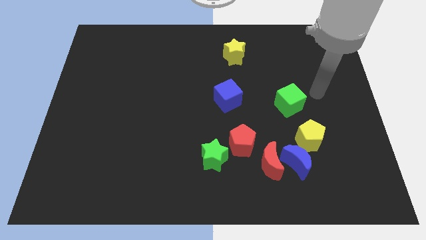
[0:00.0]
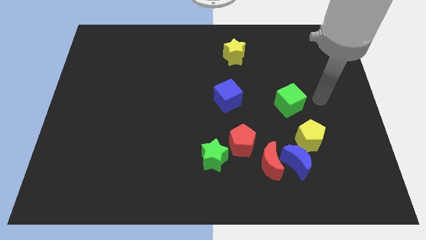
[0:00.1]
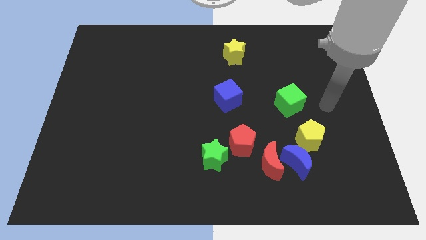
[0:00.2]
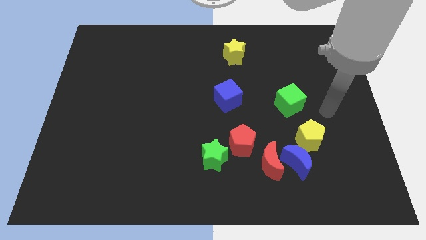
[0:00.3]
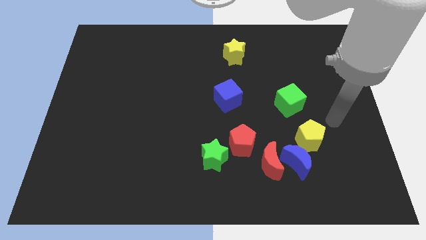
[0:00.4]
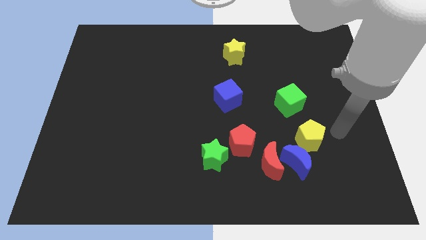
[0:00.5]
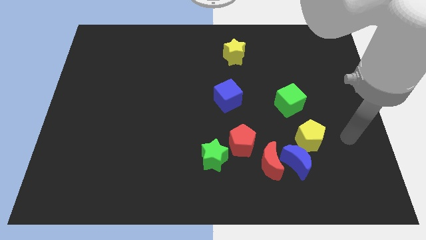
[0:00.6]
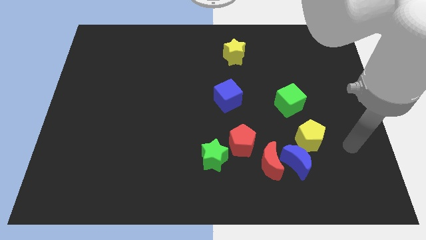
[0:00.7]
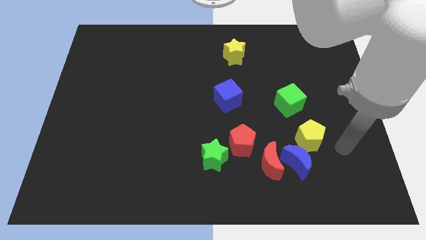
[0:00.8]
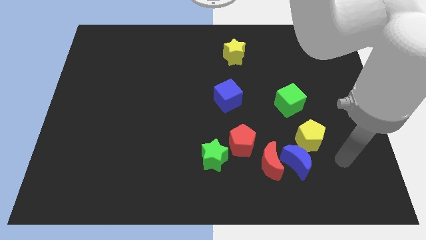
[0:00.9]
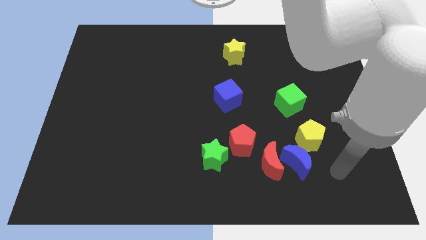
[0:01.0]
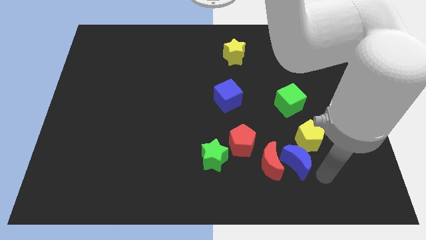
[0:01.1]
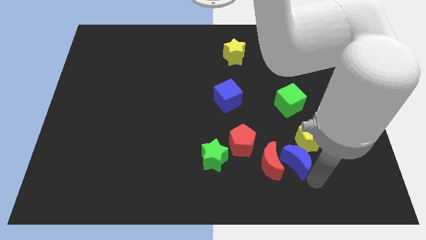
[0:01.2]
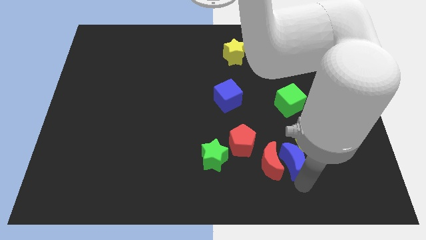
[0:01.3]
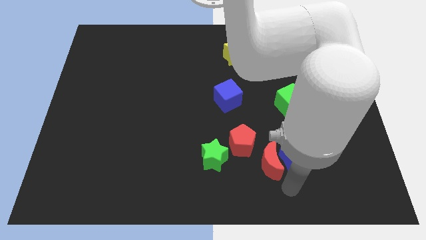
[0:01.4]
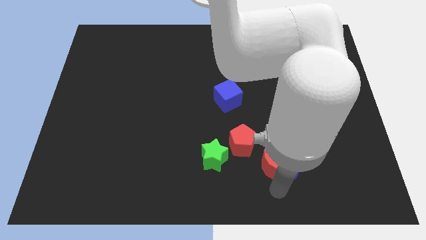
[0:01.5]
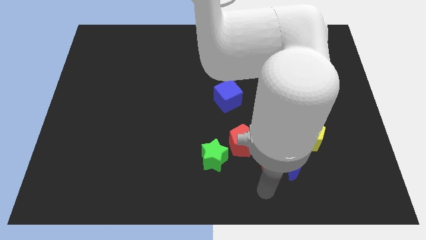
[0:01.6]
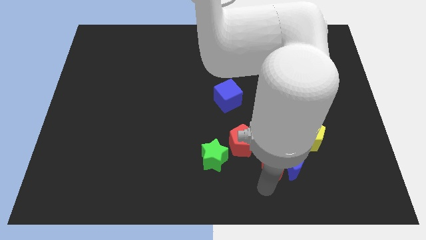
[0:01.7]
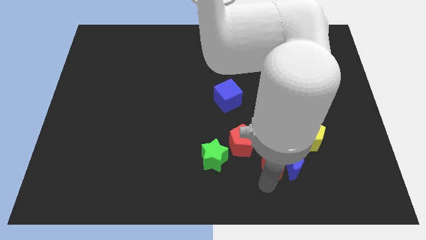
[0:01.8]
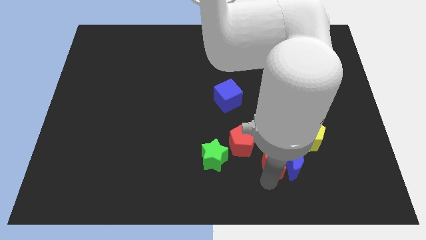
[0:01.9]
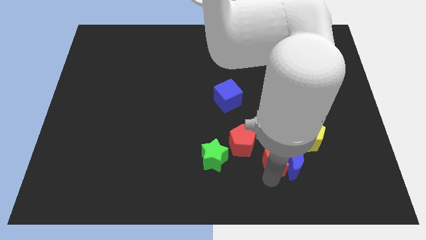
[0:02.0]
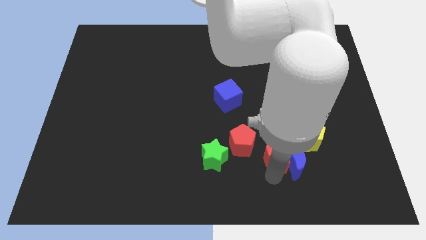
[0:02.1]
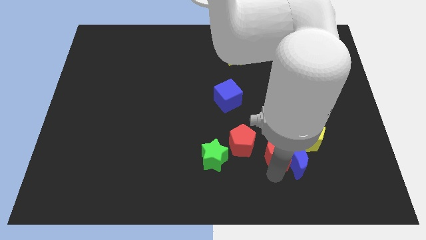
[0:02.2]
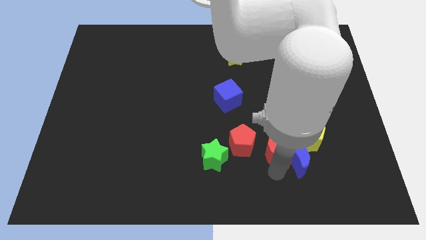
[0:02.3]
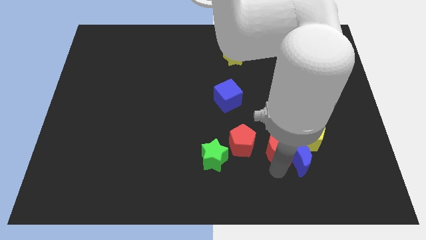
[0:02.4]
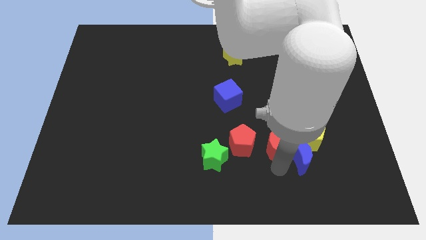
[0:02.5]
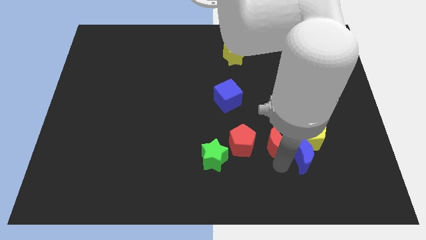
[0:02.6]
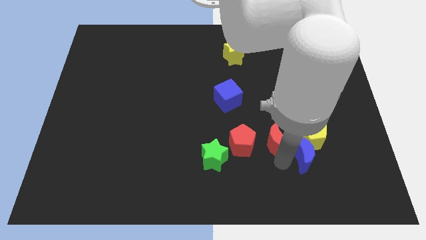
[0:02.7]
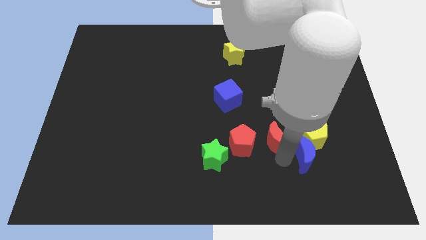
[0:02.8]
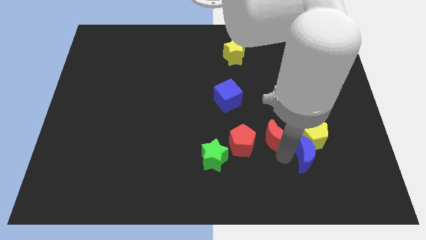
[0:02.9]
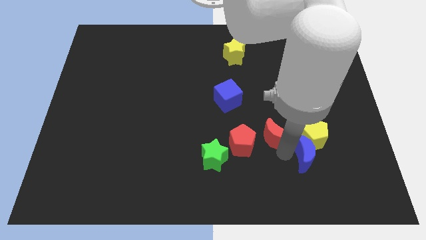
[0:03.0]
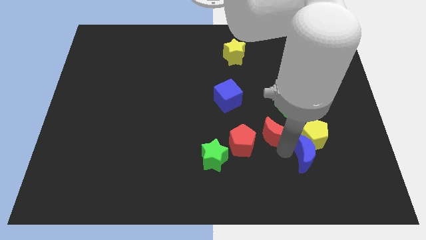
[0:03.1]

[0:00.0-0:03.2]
slightly slide the red moon up

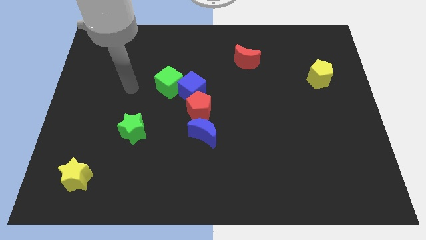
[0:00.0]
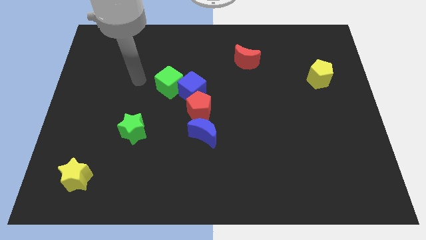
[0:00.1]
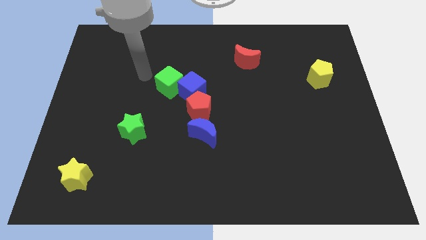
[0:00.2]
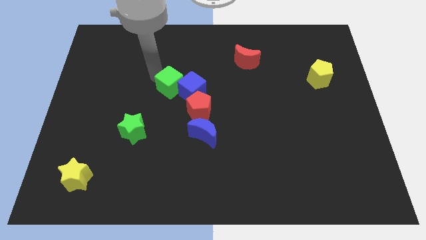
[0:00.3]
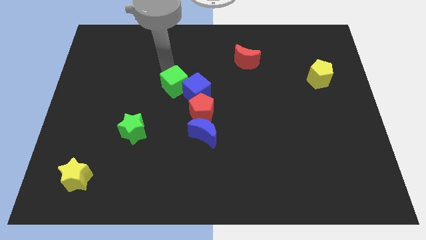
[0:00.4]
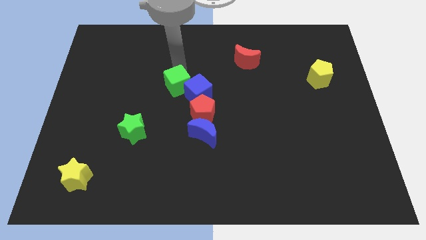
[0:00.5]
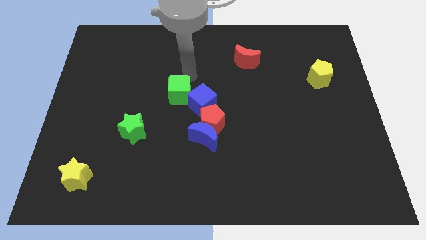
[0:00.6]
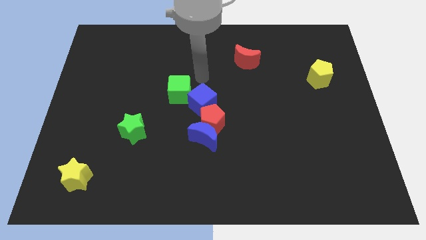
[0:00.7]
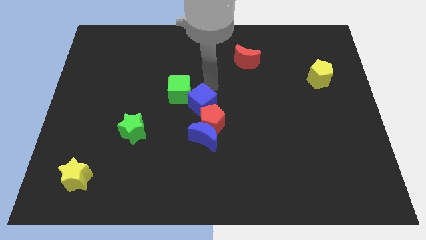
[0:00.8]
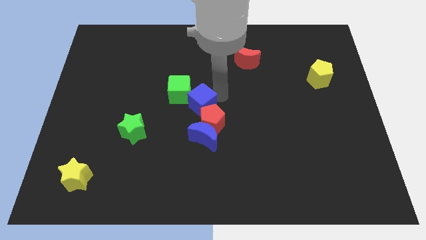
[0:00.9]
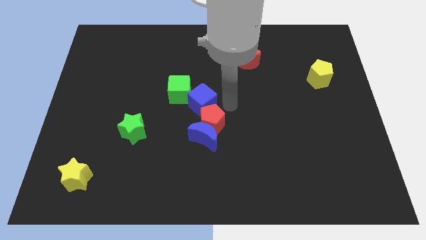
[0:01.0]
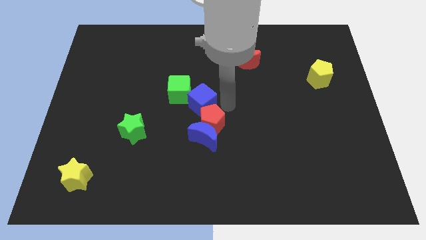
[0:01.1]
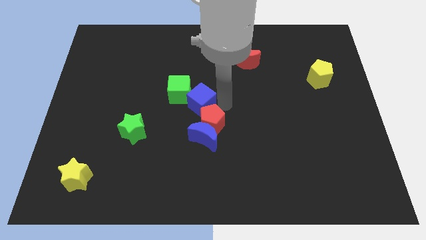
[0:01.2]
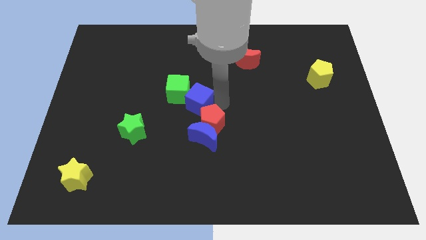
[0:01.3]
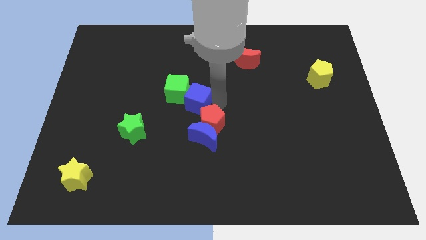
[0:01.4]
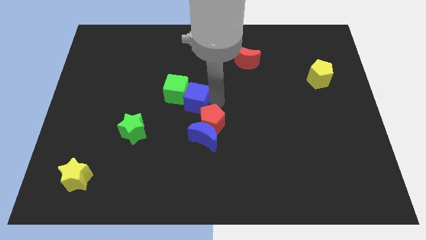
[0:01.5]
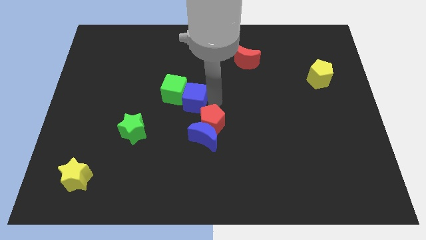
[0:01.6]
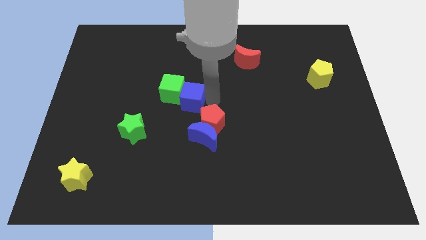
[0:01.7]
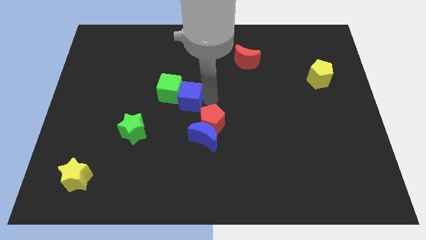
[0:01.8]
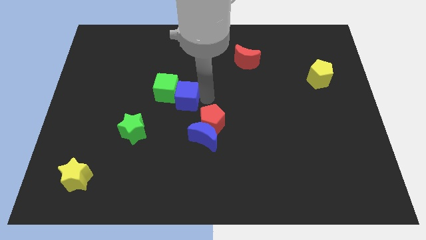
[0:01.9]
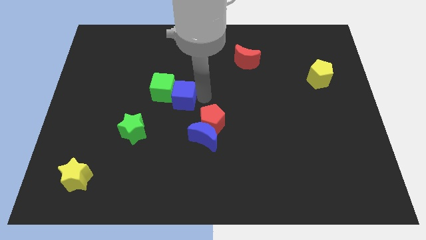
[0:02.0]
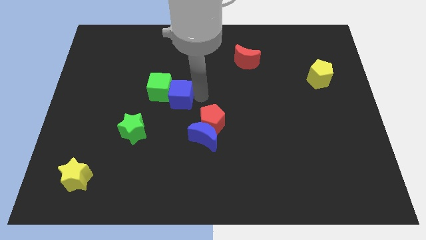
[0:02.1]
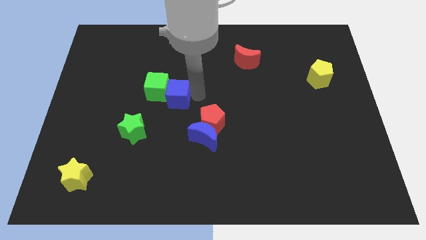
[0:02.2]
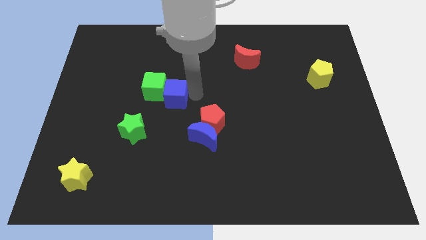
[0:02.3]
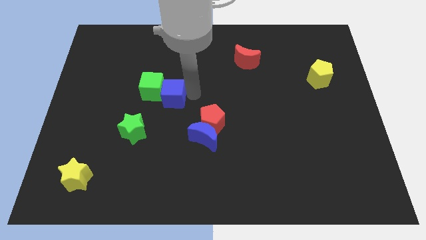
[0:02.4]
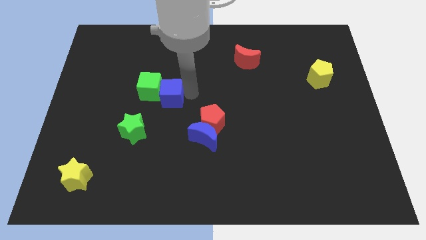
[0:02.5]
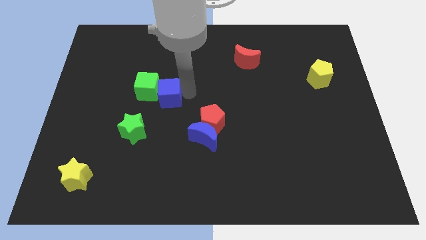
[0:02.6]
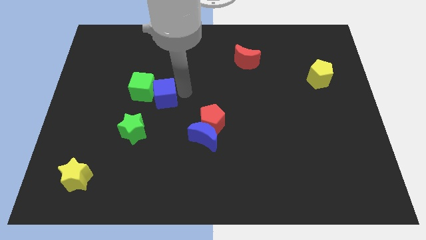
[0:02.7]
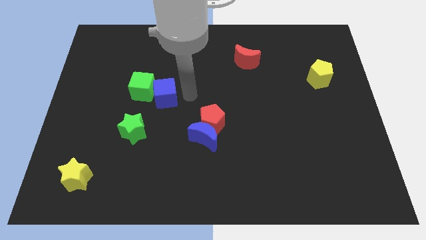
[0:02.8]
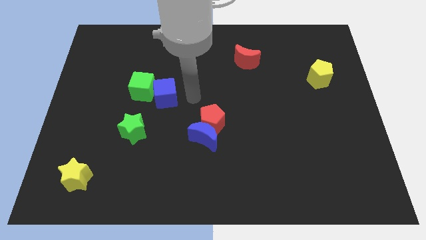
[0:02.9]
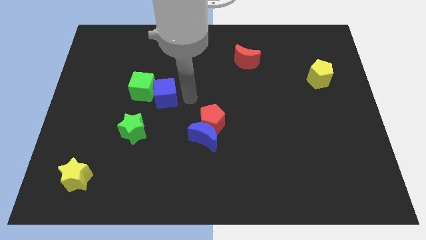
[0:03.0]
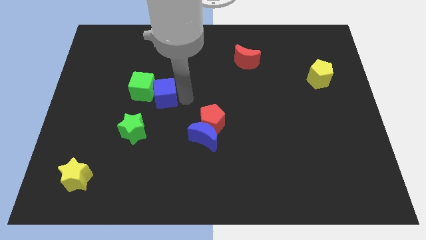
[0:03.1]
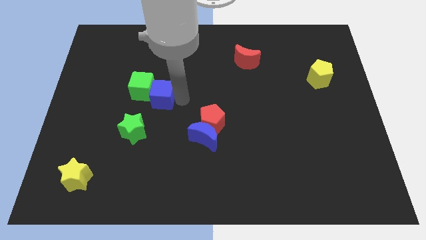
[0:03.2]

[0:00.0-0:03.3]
push the blue cube left a bit

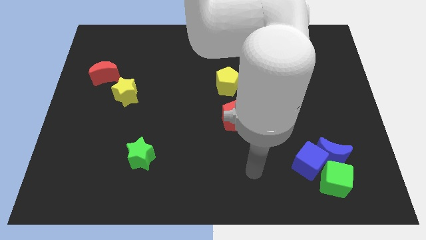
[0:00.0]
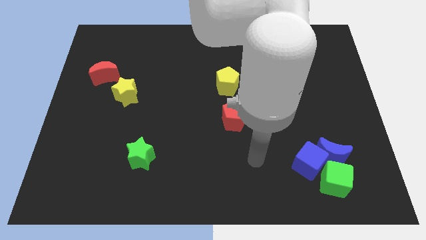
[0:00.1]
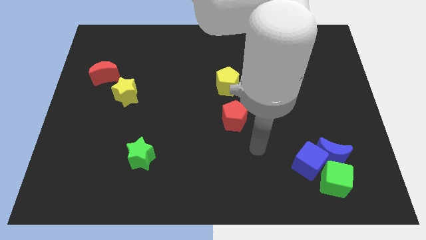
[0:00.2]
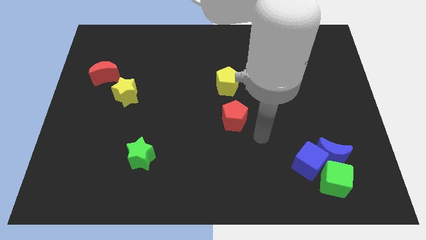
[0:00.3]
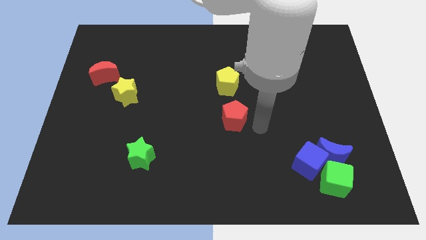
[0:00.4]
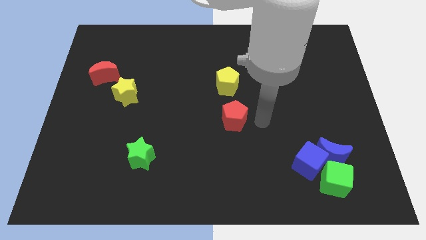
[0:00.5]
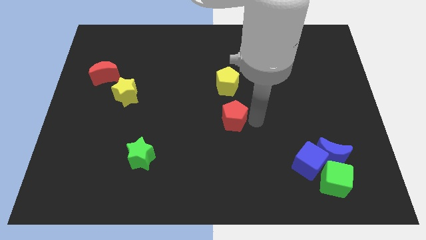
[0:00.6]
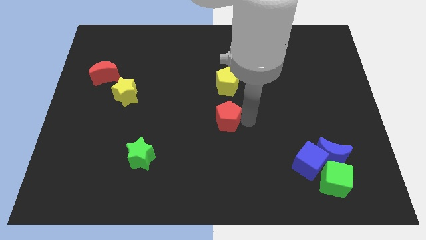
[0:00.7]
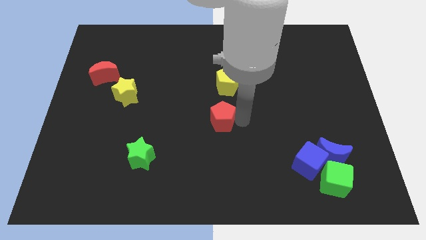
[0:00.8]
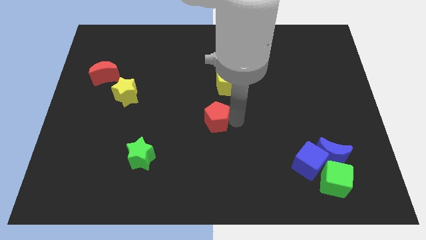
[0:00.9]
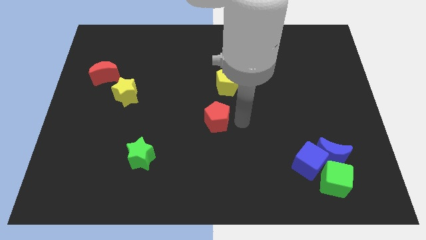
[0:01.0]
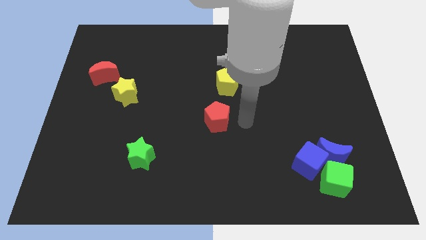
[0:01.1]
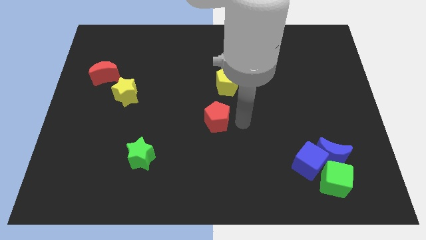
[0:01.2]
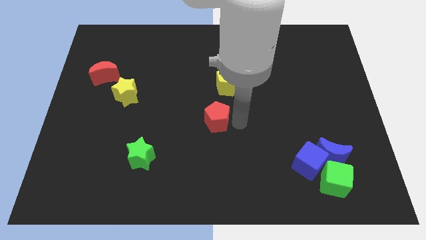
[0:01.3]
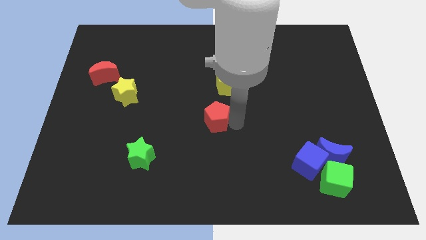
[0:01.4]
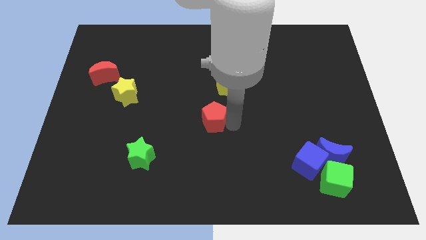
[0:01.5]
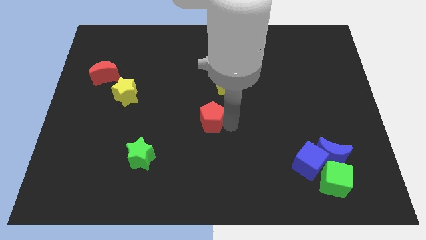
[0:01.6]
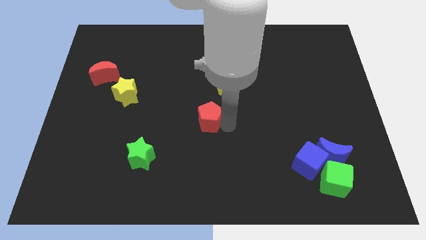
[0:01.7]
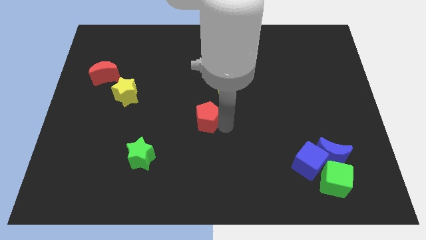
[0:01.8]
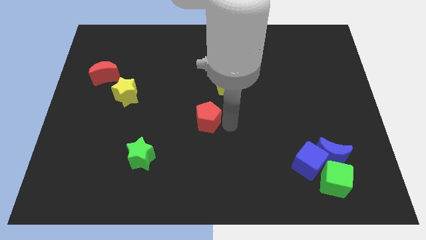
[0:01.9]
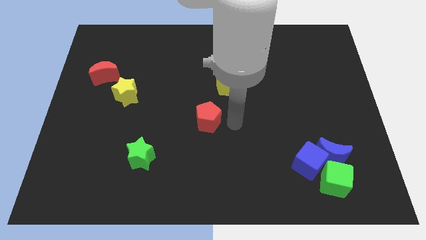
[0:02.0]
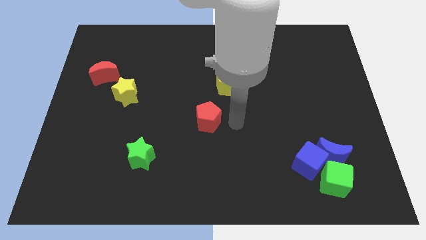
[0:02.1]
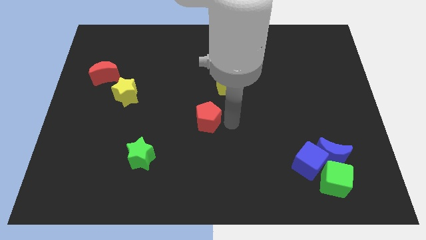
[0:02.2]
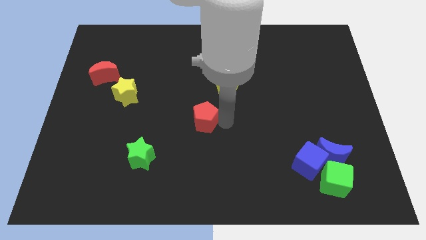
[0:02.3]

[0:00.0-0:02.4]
push the red pentagon left slightly
